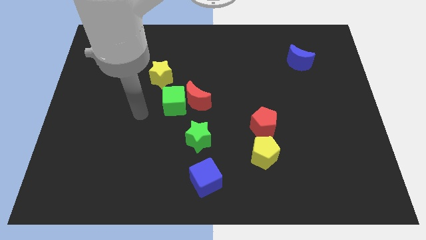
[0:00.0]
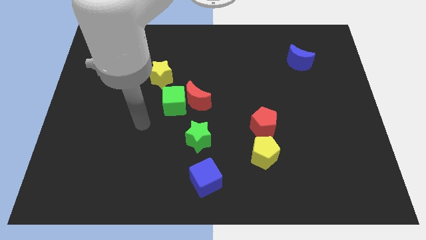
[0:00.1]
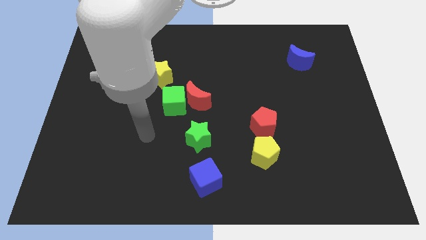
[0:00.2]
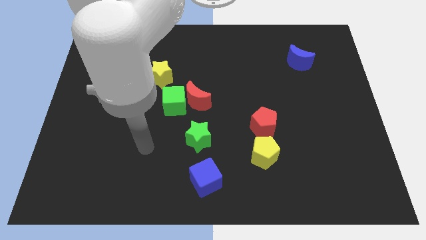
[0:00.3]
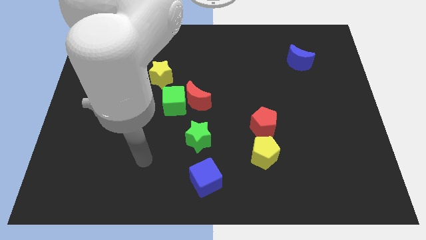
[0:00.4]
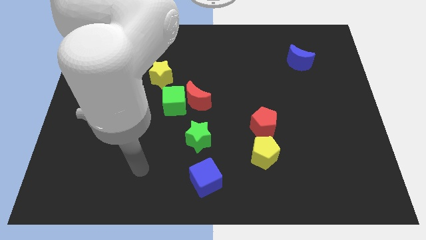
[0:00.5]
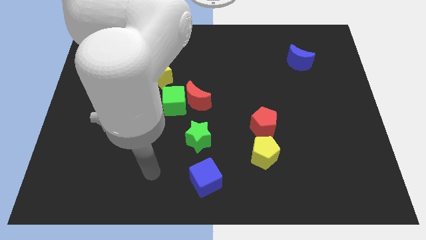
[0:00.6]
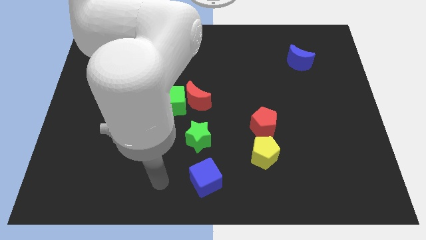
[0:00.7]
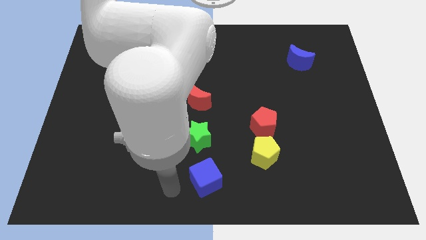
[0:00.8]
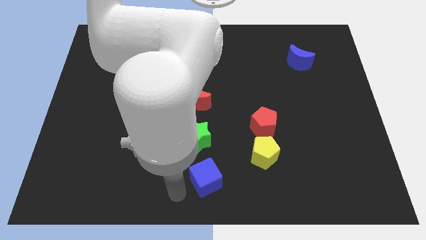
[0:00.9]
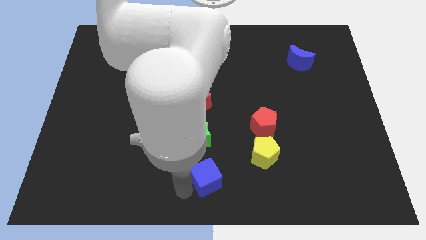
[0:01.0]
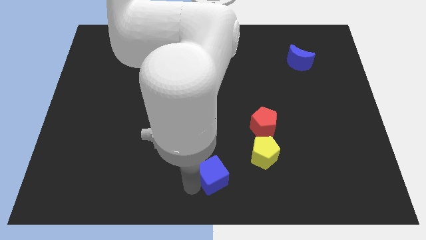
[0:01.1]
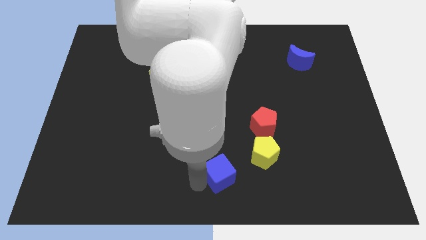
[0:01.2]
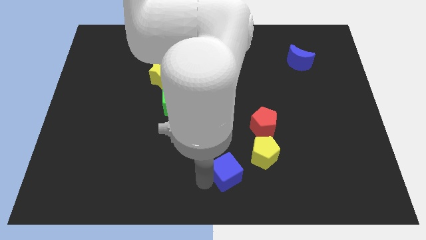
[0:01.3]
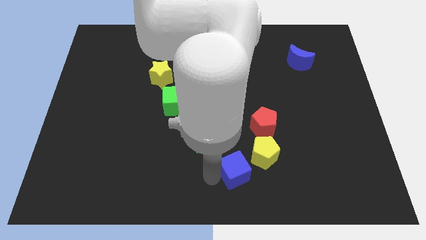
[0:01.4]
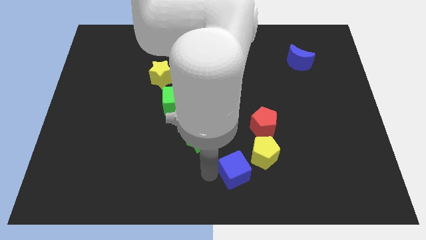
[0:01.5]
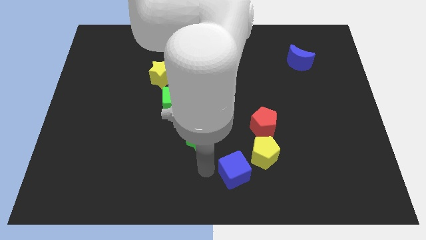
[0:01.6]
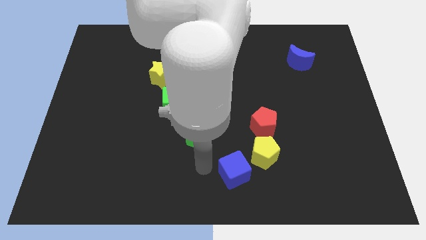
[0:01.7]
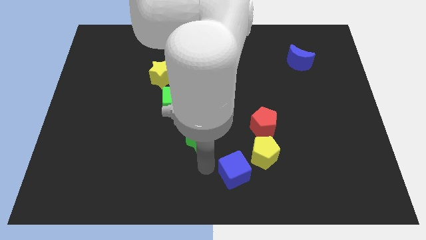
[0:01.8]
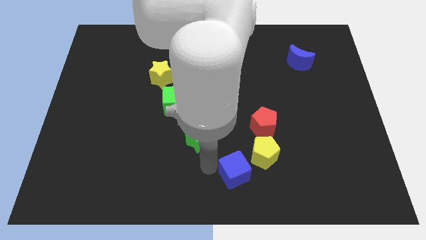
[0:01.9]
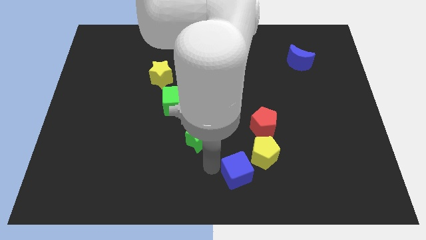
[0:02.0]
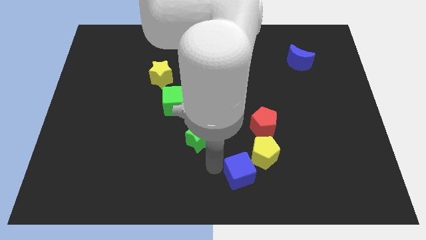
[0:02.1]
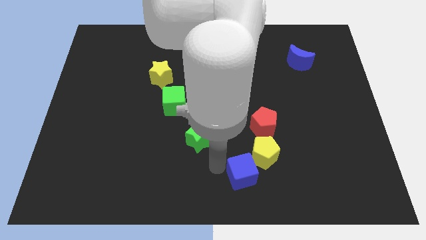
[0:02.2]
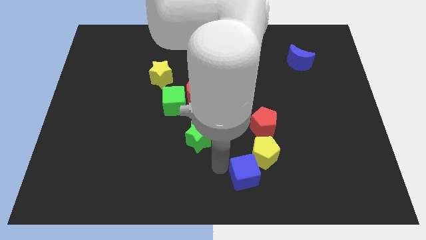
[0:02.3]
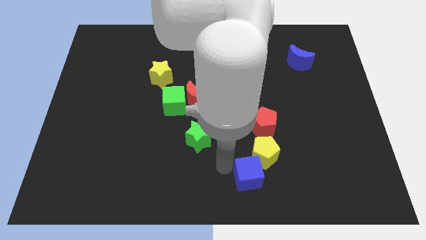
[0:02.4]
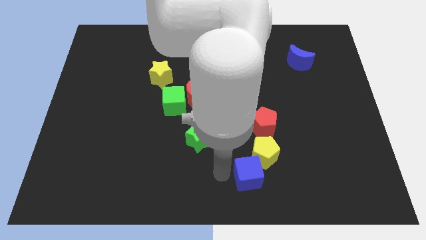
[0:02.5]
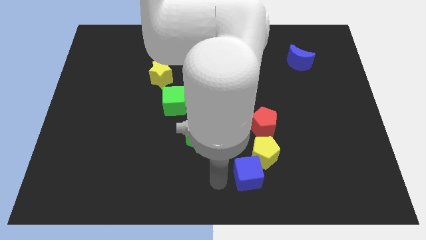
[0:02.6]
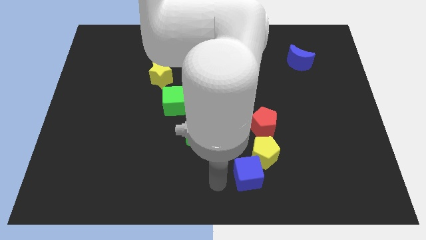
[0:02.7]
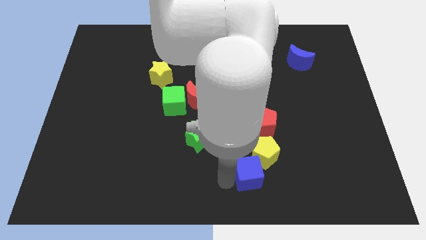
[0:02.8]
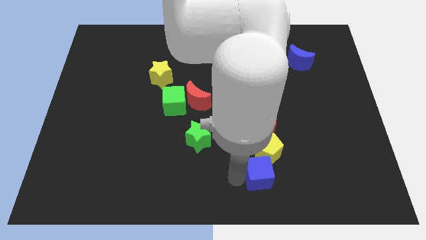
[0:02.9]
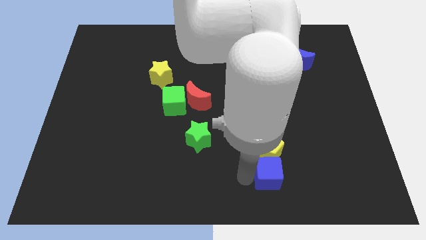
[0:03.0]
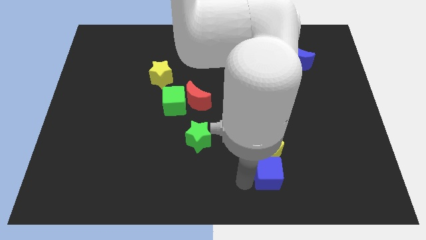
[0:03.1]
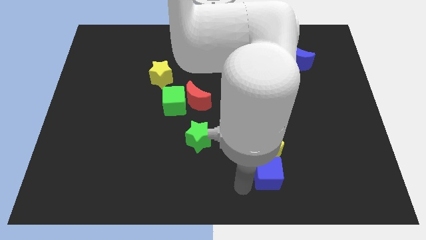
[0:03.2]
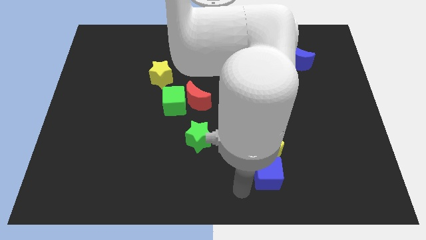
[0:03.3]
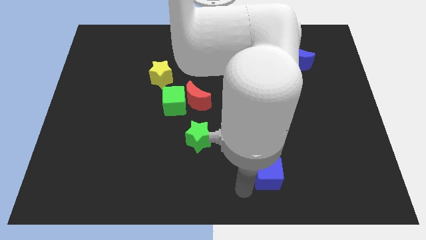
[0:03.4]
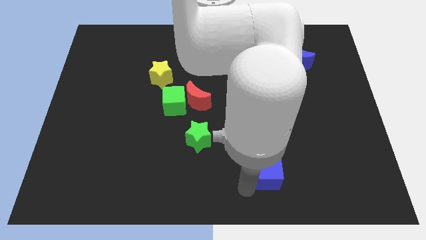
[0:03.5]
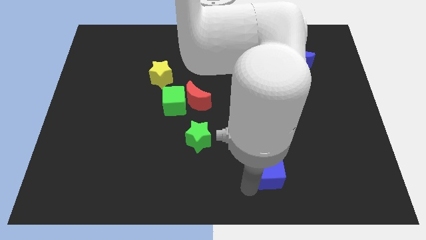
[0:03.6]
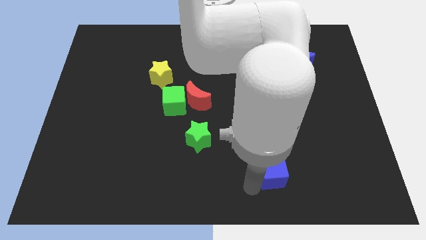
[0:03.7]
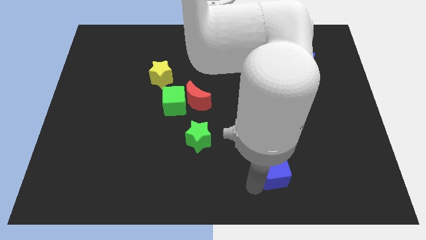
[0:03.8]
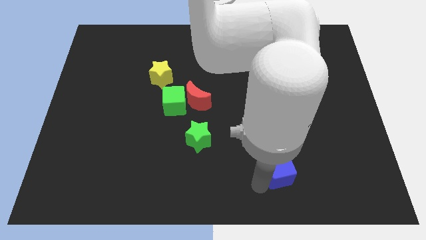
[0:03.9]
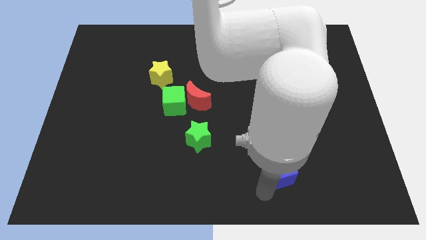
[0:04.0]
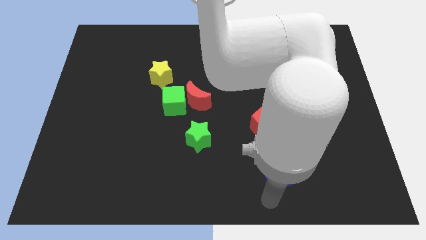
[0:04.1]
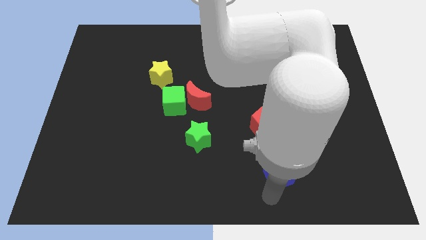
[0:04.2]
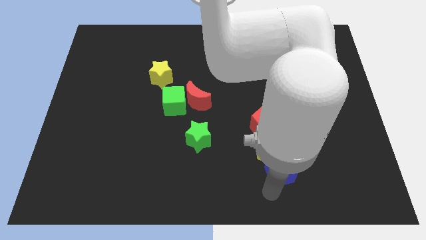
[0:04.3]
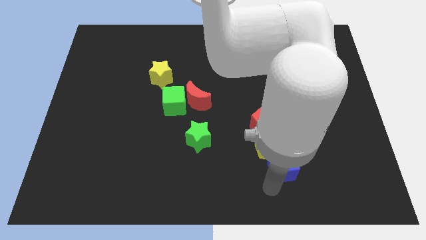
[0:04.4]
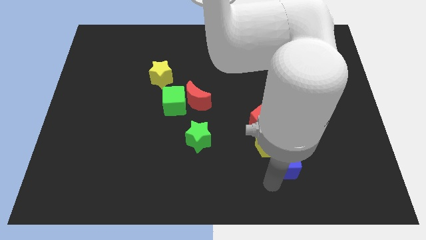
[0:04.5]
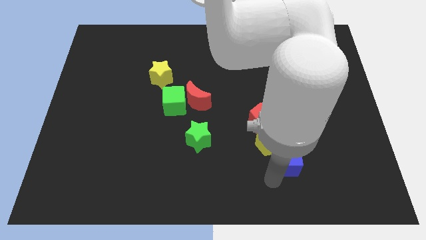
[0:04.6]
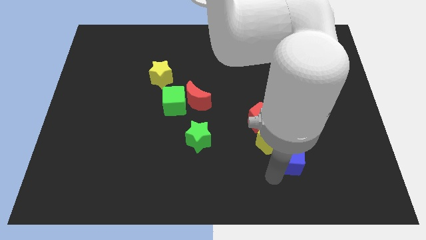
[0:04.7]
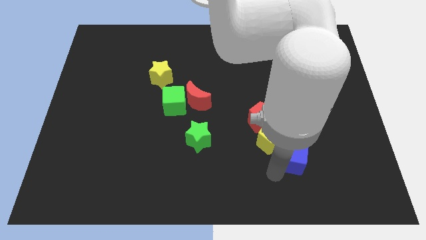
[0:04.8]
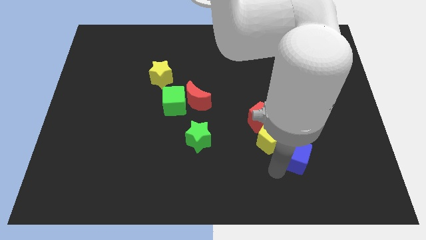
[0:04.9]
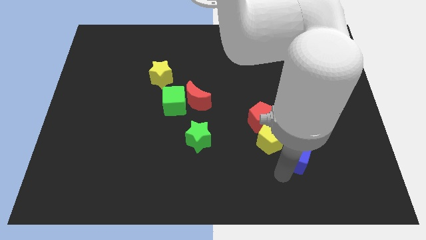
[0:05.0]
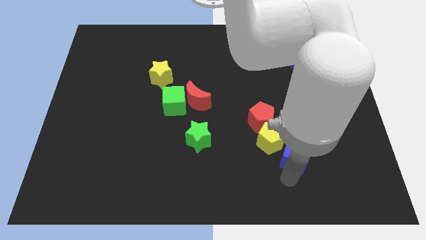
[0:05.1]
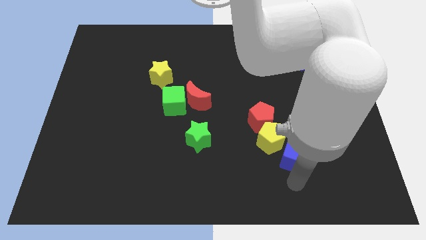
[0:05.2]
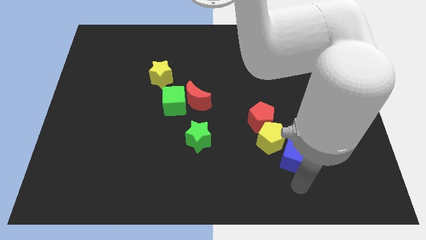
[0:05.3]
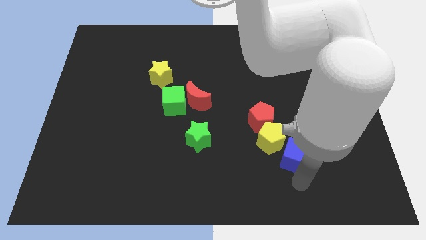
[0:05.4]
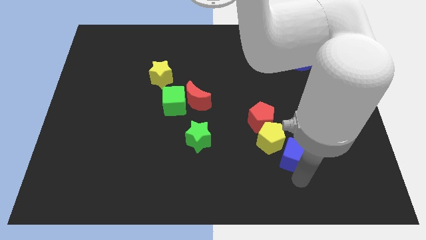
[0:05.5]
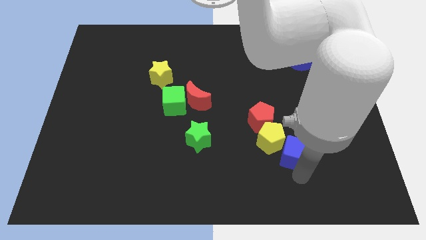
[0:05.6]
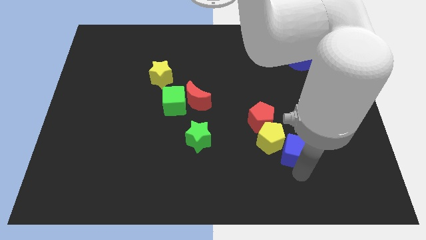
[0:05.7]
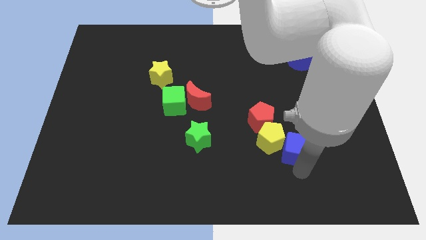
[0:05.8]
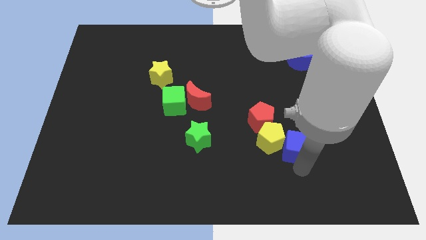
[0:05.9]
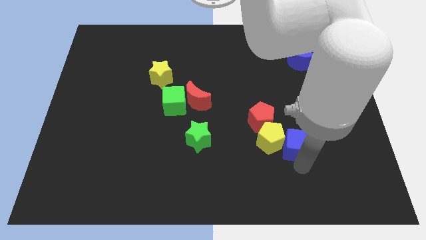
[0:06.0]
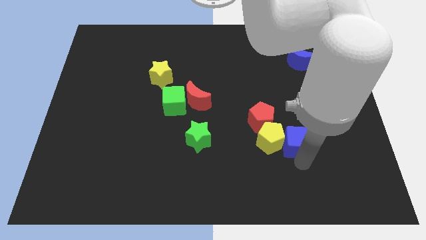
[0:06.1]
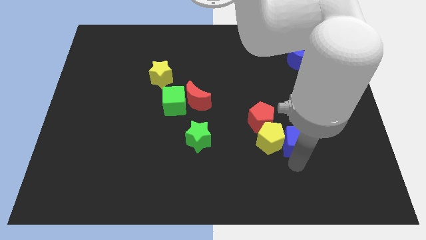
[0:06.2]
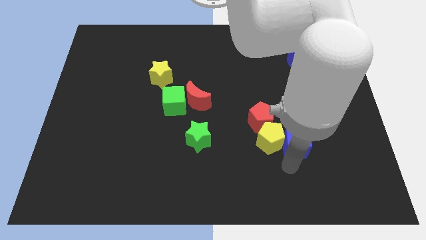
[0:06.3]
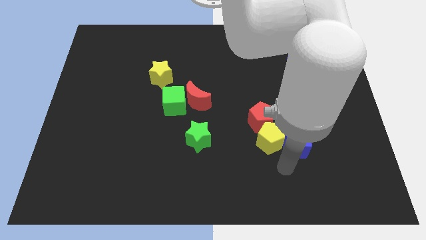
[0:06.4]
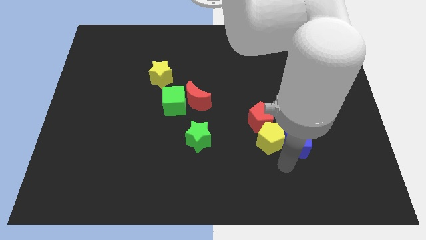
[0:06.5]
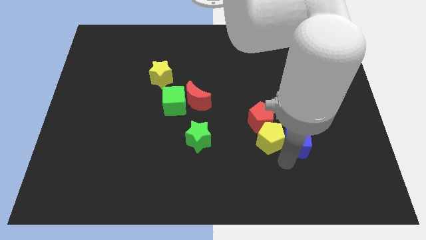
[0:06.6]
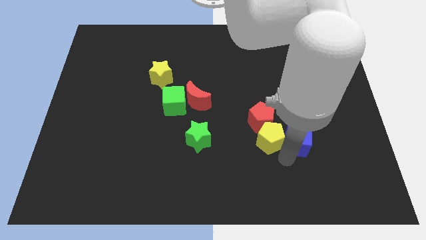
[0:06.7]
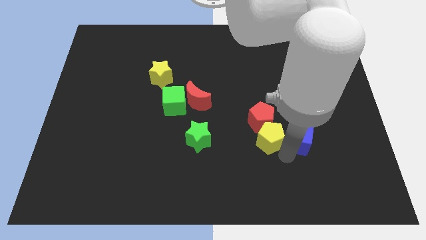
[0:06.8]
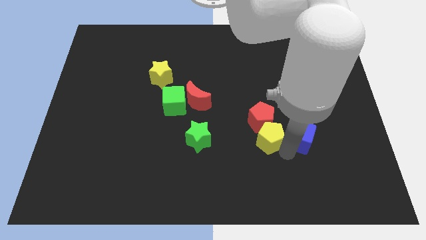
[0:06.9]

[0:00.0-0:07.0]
move the blue cube right of the red pentagon
